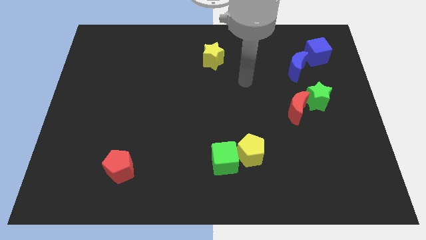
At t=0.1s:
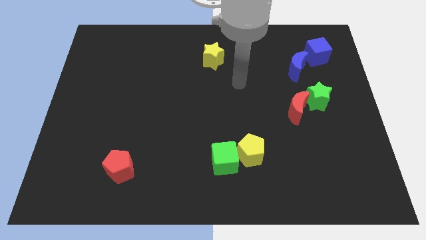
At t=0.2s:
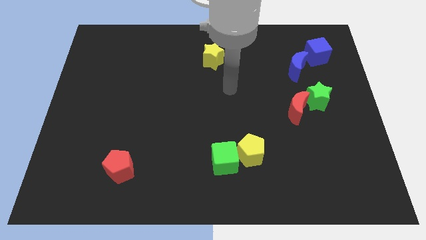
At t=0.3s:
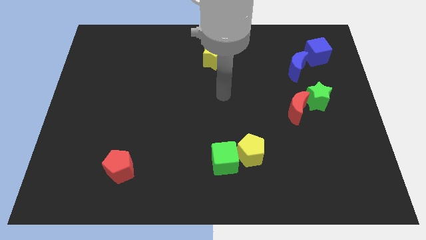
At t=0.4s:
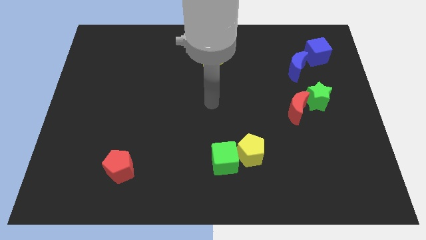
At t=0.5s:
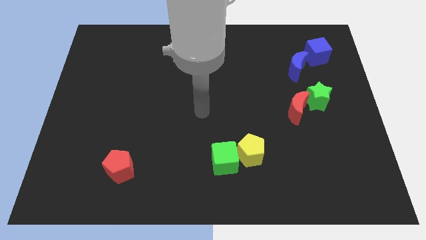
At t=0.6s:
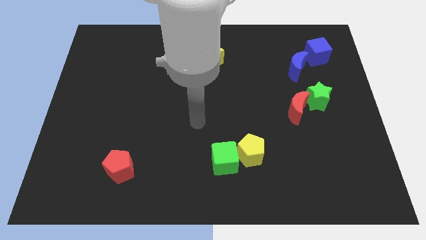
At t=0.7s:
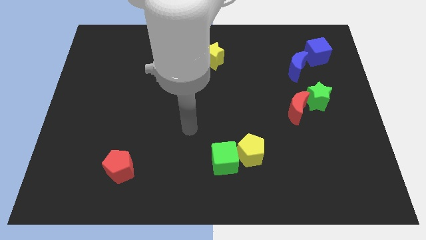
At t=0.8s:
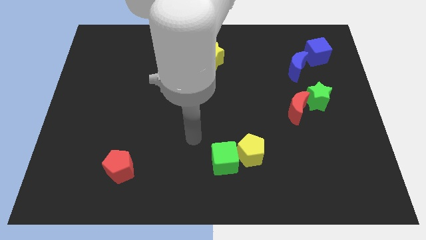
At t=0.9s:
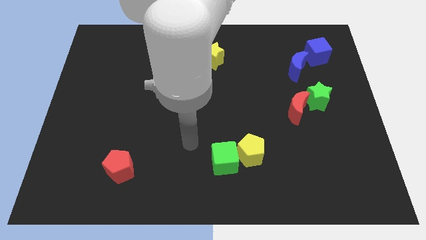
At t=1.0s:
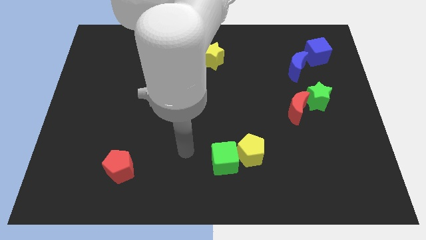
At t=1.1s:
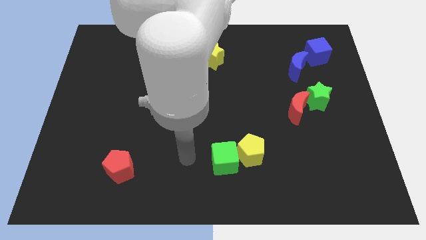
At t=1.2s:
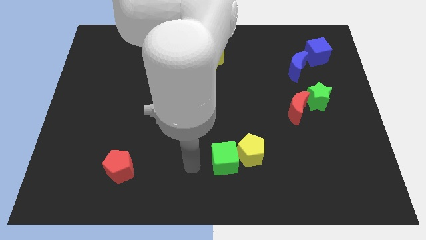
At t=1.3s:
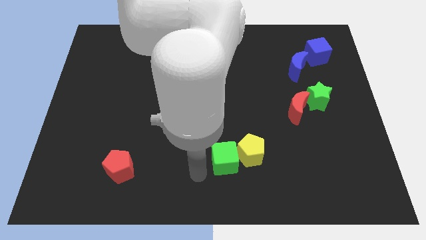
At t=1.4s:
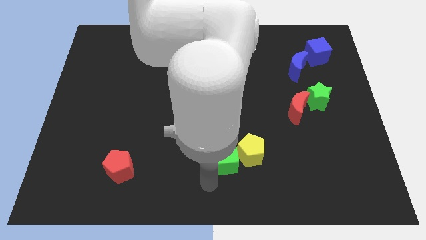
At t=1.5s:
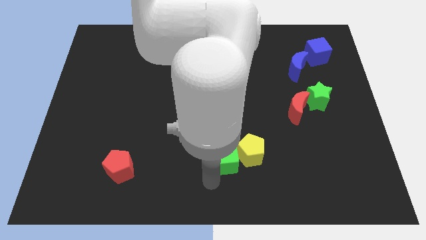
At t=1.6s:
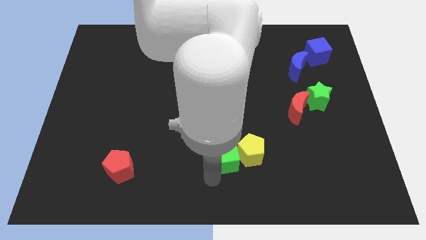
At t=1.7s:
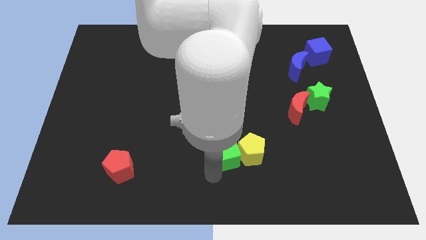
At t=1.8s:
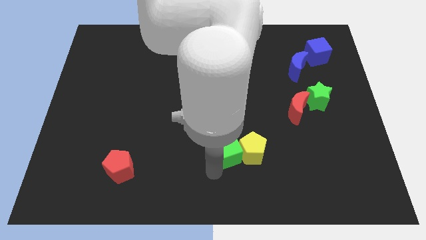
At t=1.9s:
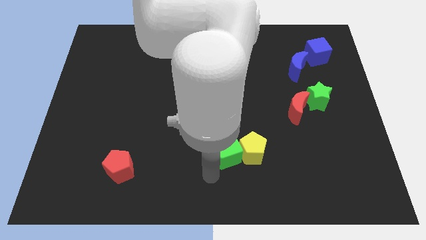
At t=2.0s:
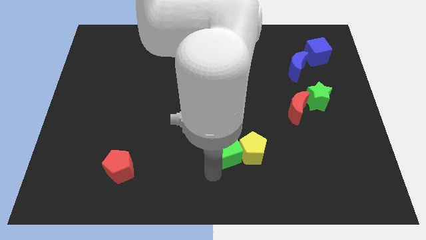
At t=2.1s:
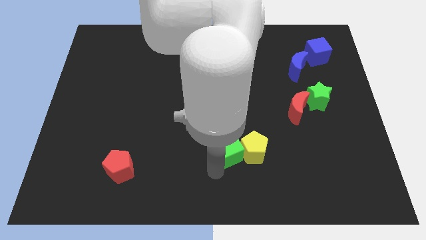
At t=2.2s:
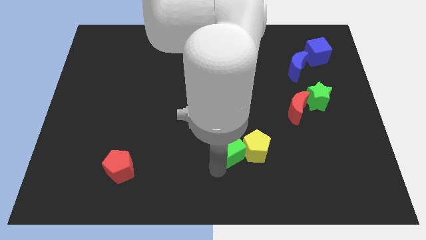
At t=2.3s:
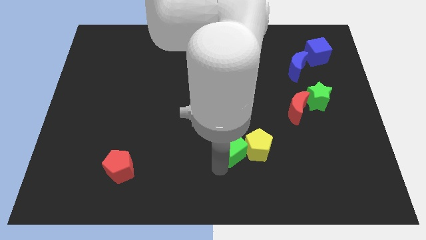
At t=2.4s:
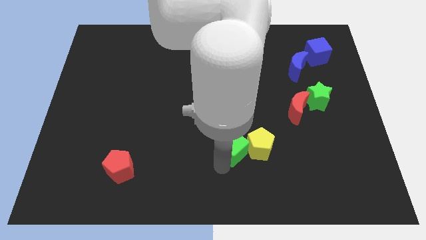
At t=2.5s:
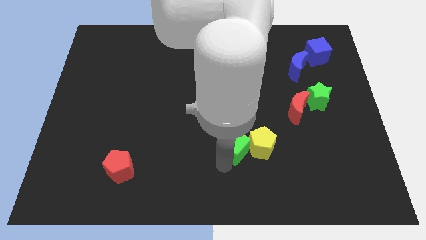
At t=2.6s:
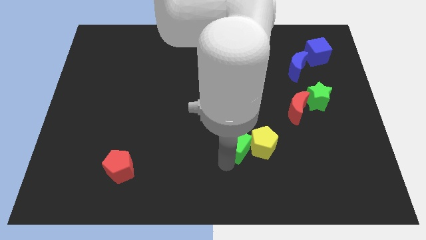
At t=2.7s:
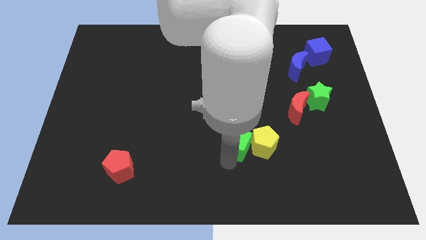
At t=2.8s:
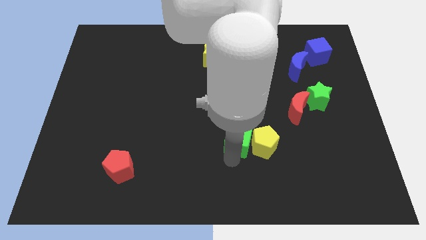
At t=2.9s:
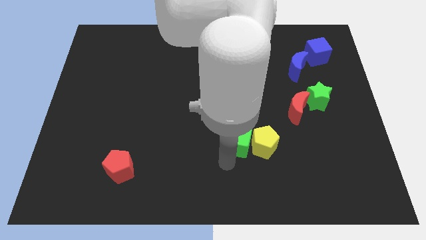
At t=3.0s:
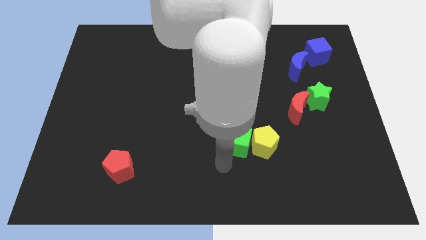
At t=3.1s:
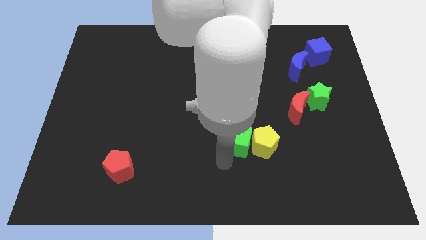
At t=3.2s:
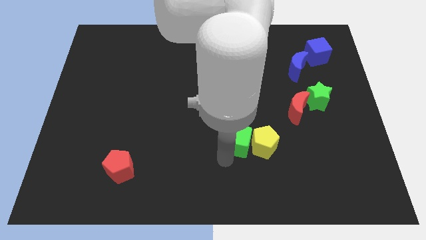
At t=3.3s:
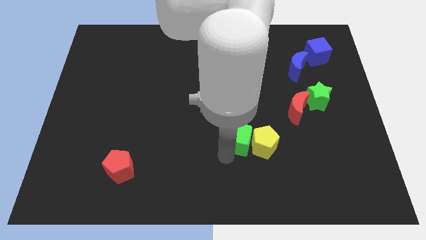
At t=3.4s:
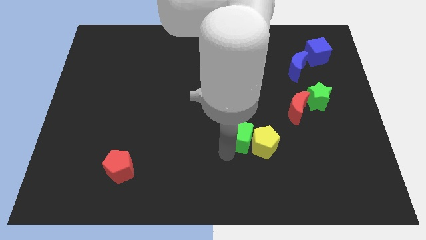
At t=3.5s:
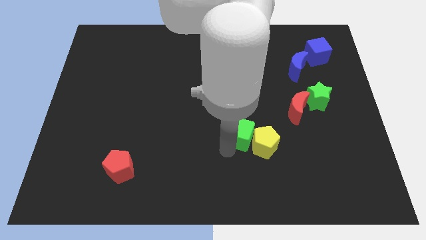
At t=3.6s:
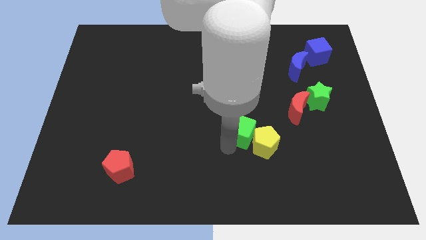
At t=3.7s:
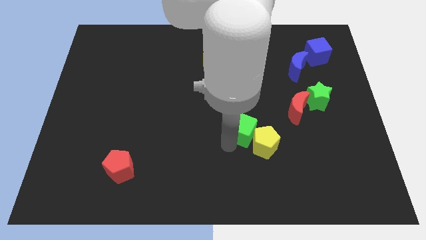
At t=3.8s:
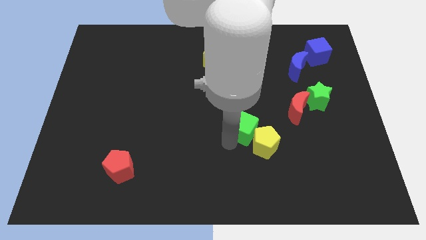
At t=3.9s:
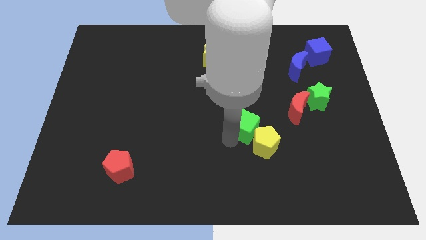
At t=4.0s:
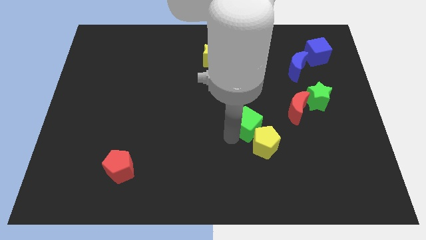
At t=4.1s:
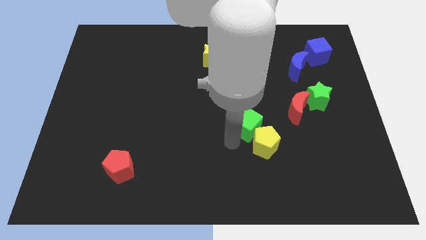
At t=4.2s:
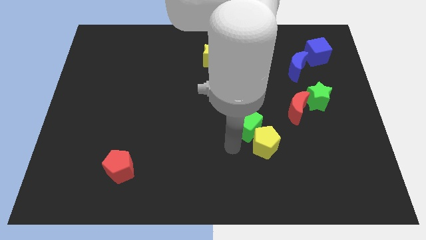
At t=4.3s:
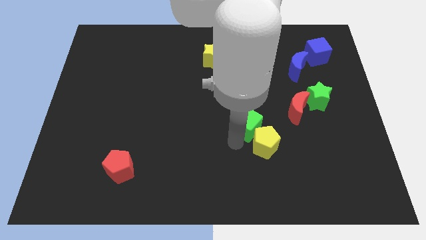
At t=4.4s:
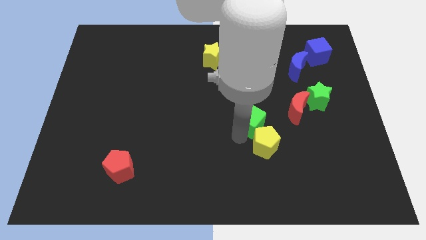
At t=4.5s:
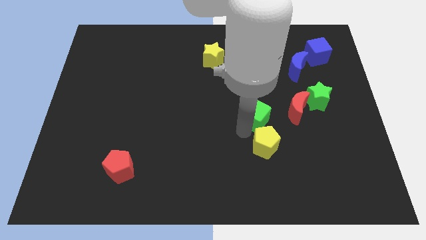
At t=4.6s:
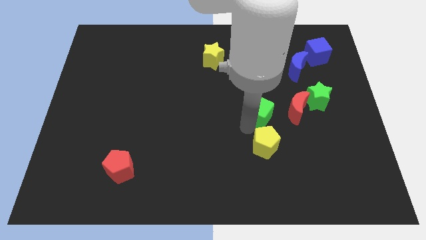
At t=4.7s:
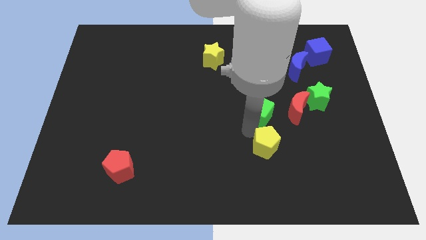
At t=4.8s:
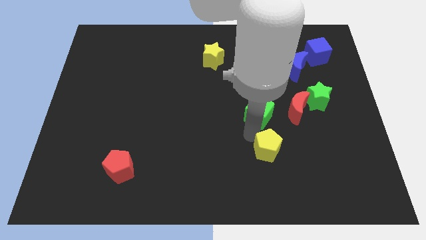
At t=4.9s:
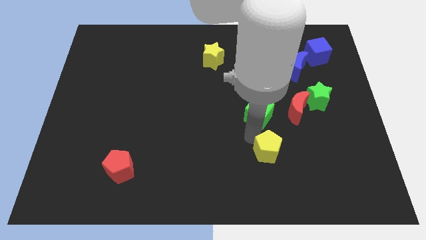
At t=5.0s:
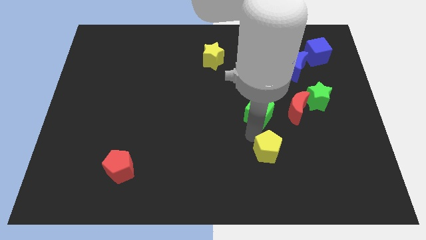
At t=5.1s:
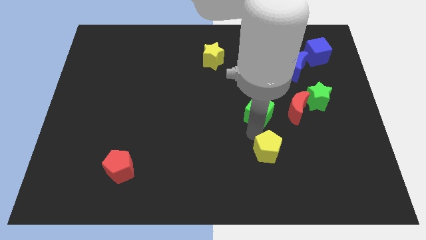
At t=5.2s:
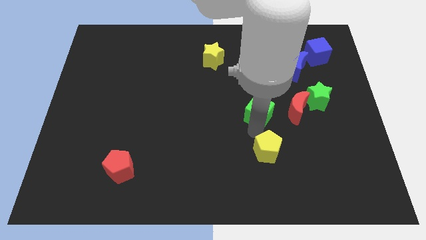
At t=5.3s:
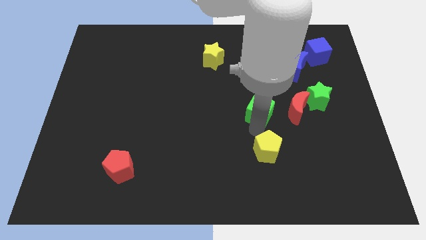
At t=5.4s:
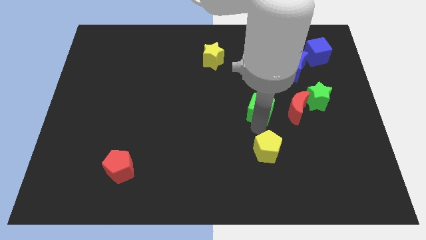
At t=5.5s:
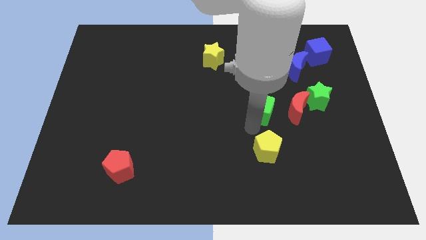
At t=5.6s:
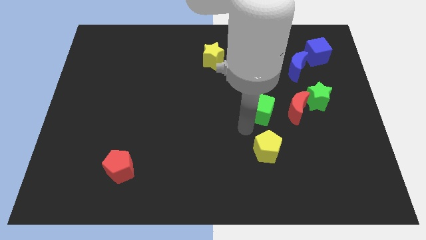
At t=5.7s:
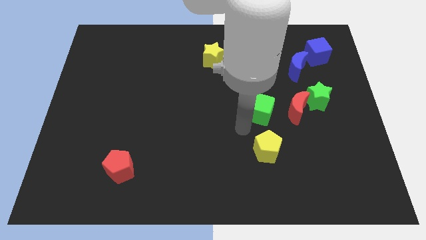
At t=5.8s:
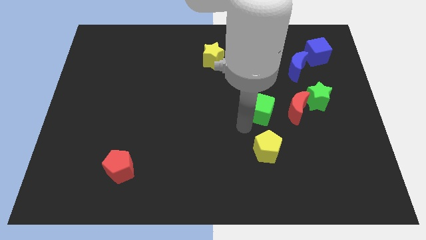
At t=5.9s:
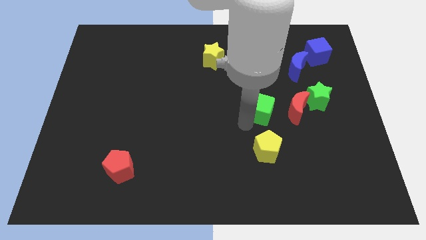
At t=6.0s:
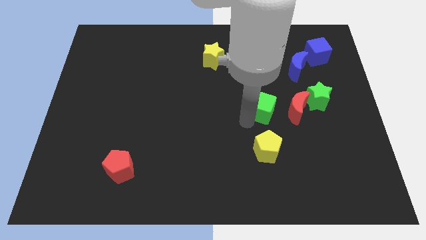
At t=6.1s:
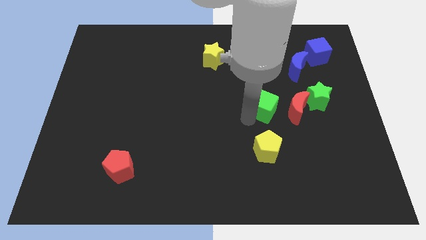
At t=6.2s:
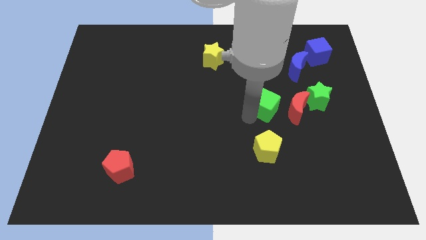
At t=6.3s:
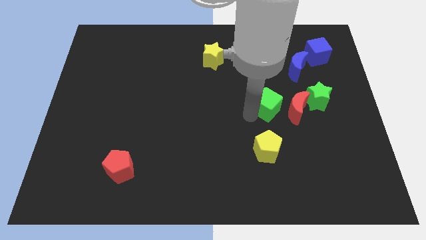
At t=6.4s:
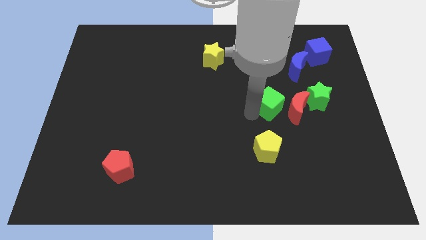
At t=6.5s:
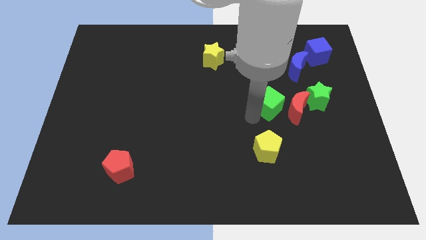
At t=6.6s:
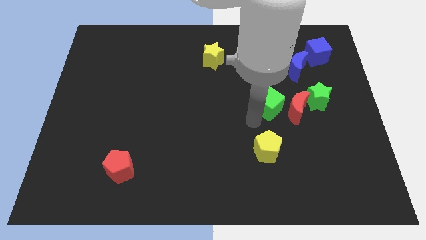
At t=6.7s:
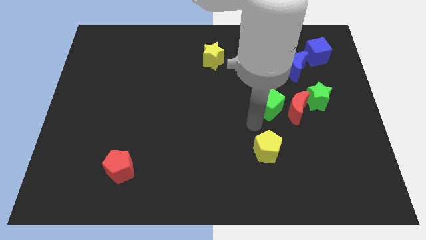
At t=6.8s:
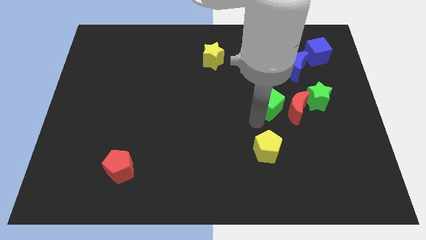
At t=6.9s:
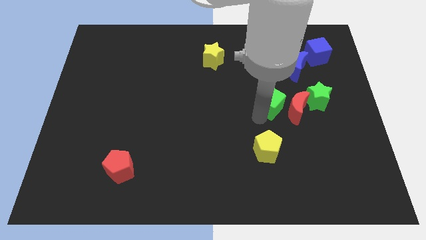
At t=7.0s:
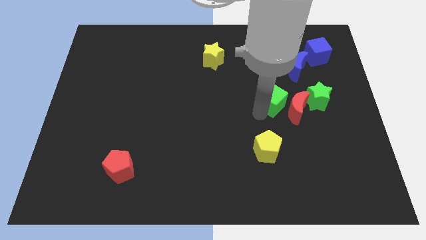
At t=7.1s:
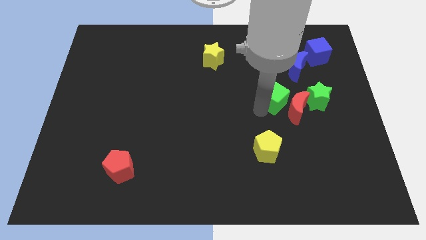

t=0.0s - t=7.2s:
push the green cube diagonally up and to the right

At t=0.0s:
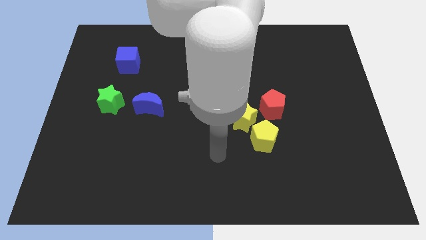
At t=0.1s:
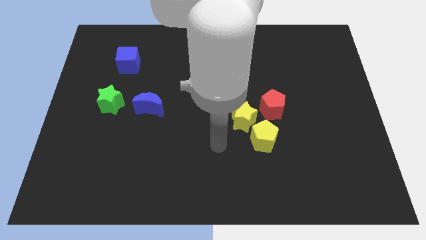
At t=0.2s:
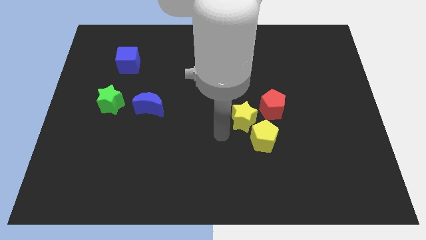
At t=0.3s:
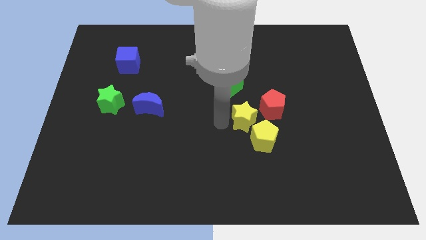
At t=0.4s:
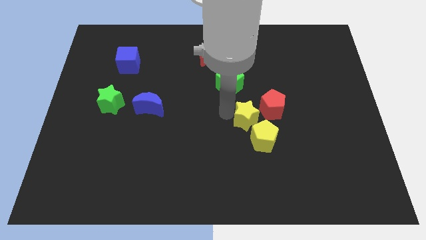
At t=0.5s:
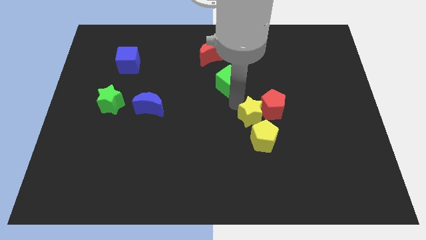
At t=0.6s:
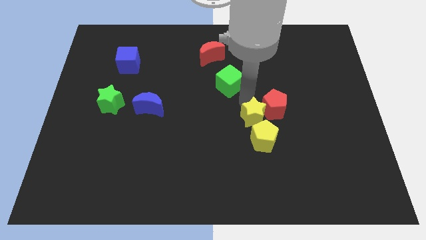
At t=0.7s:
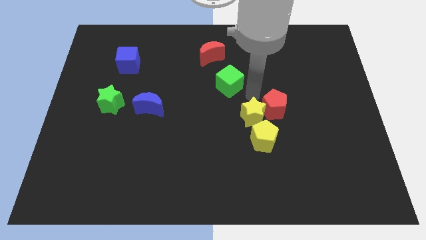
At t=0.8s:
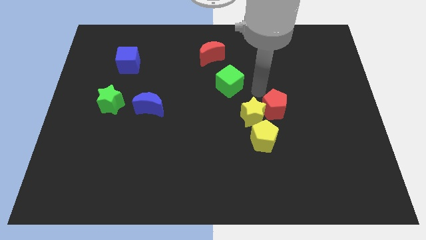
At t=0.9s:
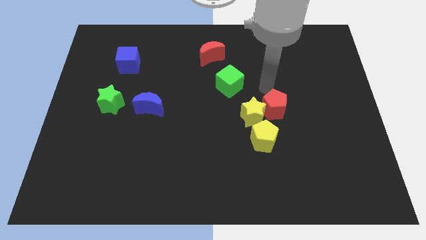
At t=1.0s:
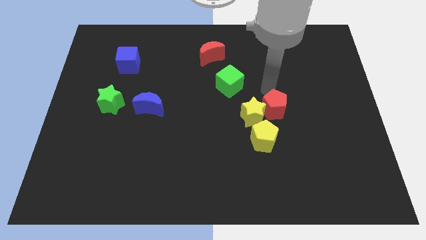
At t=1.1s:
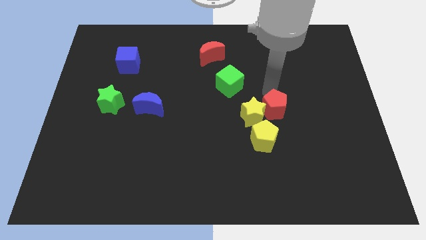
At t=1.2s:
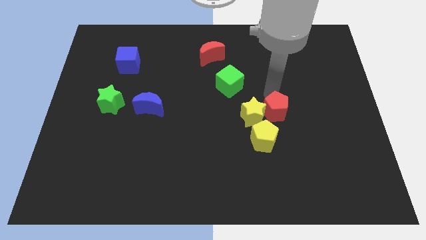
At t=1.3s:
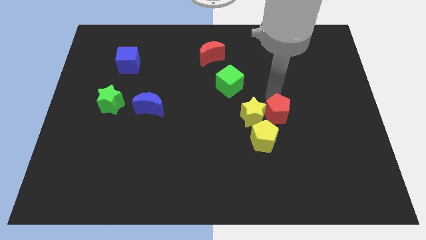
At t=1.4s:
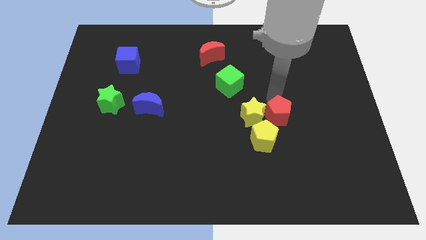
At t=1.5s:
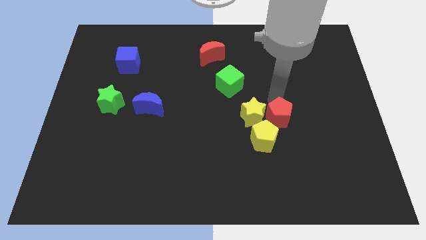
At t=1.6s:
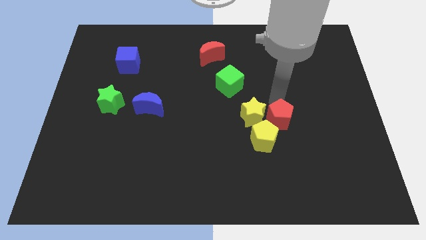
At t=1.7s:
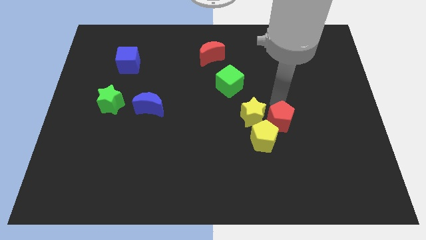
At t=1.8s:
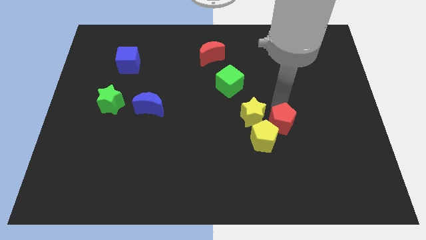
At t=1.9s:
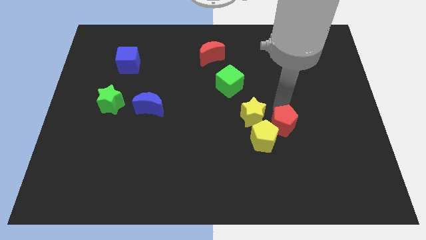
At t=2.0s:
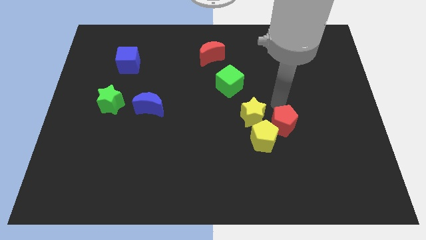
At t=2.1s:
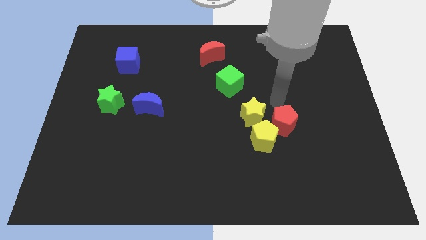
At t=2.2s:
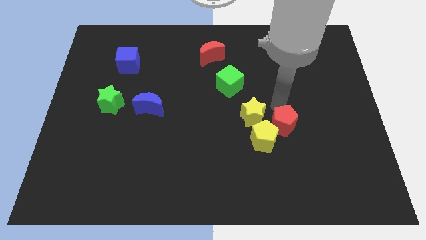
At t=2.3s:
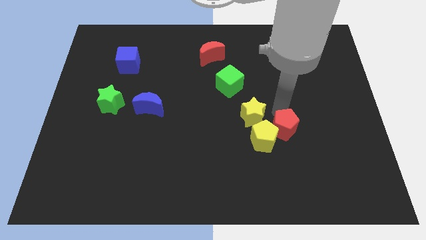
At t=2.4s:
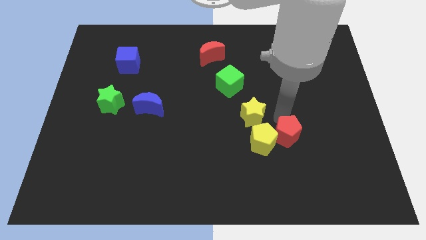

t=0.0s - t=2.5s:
slightly slide the red pentagon downwards
